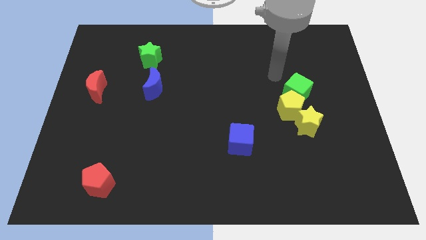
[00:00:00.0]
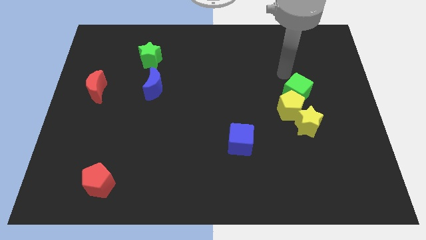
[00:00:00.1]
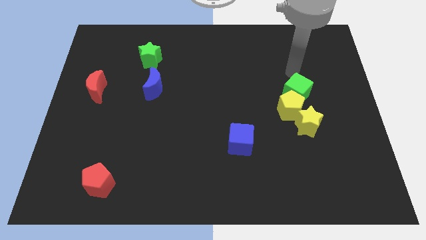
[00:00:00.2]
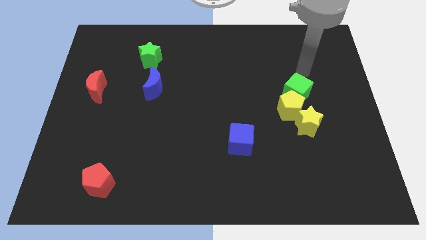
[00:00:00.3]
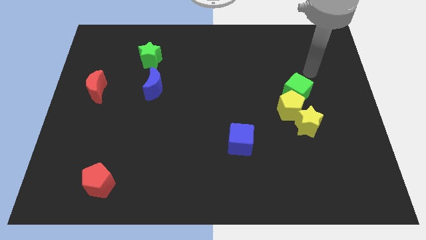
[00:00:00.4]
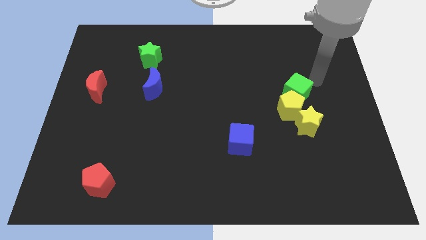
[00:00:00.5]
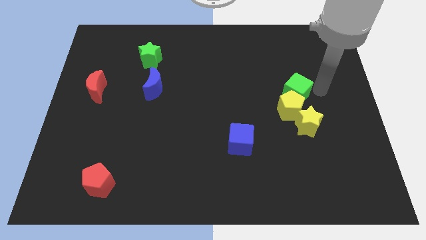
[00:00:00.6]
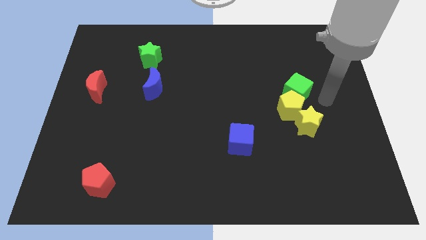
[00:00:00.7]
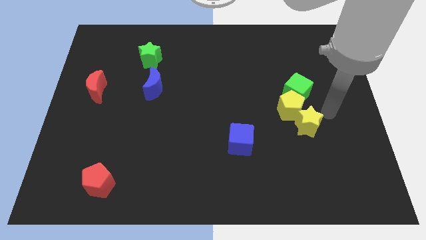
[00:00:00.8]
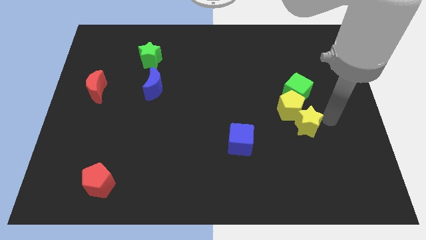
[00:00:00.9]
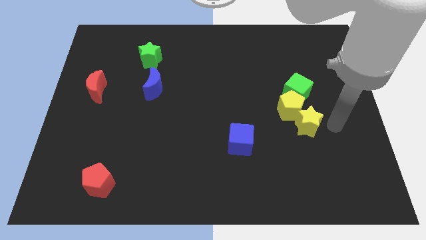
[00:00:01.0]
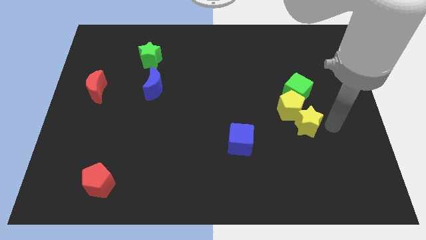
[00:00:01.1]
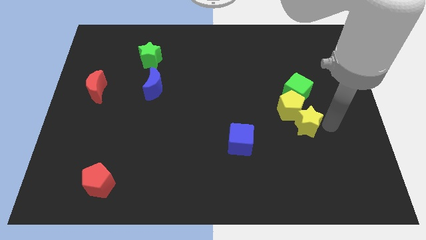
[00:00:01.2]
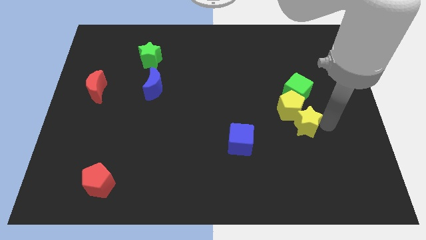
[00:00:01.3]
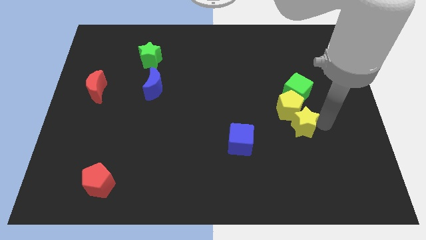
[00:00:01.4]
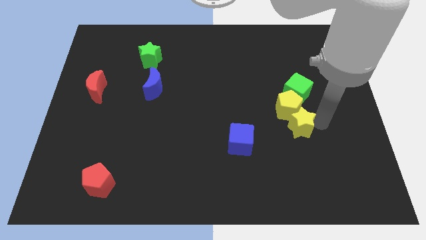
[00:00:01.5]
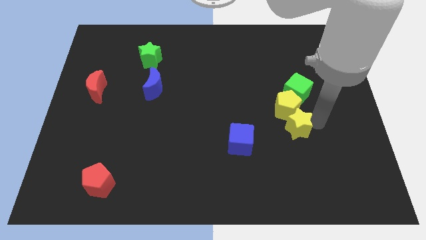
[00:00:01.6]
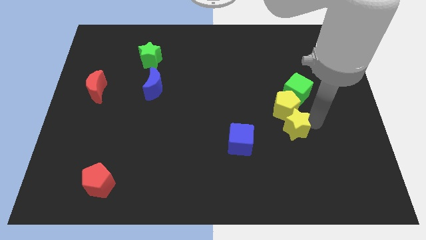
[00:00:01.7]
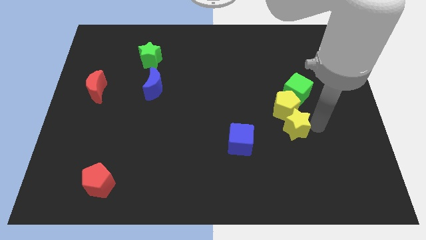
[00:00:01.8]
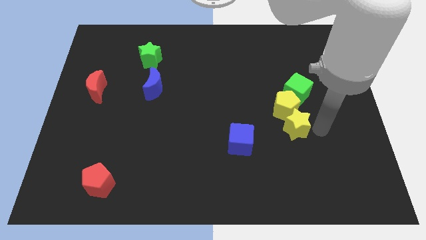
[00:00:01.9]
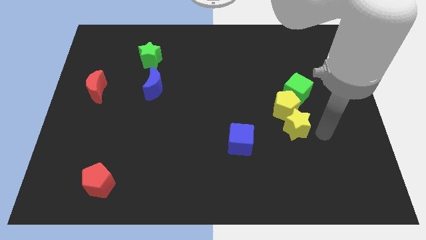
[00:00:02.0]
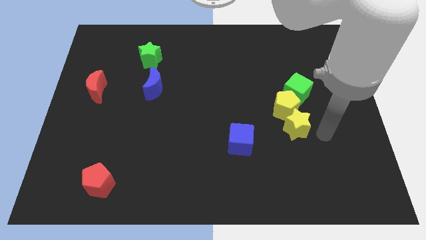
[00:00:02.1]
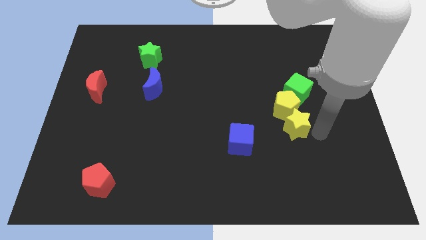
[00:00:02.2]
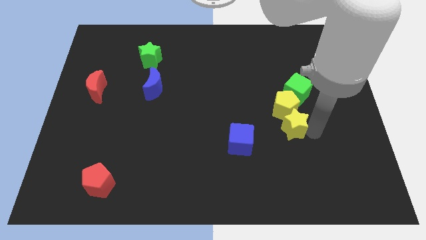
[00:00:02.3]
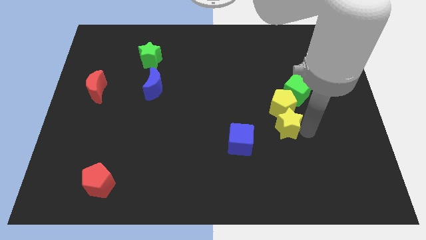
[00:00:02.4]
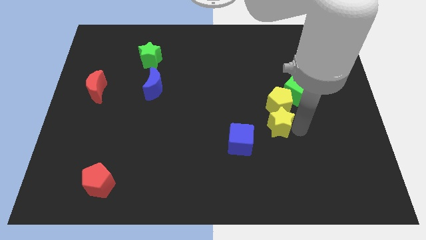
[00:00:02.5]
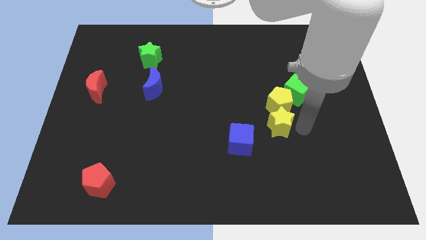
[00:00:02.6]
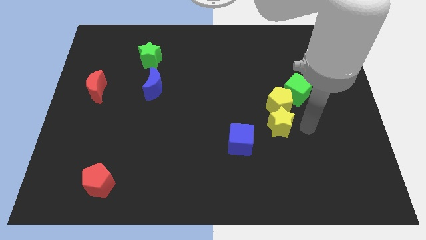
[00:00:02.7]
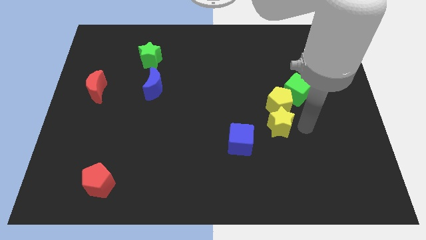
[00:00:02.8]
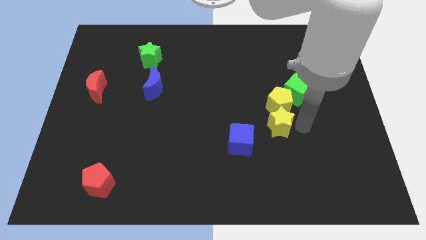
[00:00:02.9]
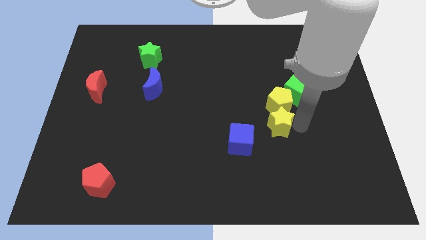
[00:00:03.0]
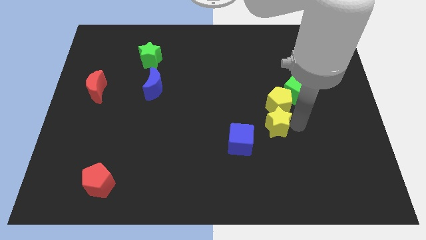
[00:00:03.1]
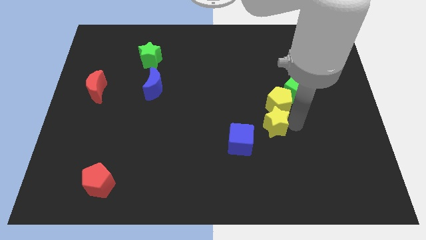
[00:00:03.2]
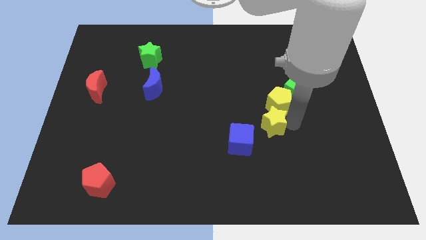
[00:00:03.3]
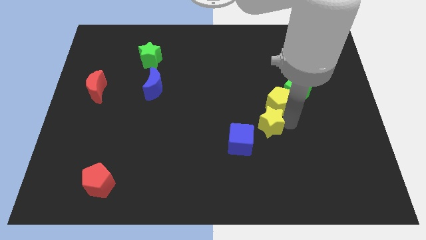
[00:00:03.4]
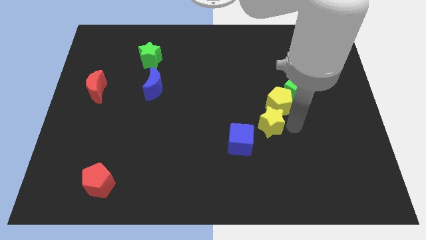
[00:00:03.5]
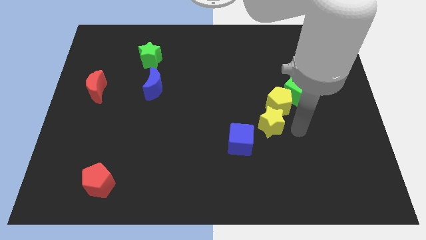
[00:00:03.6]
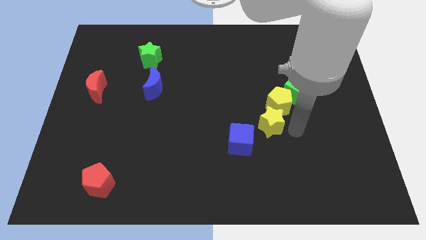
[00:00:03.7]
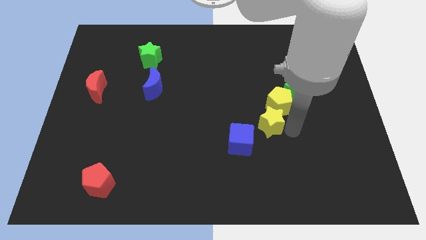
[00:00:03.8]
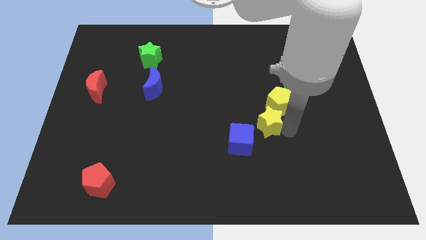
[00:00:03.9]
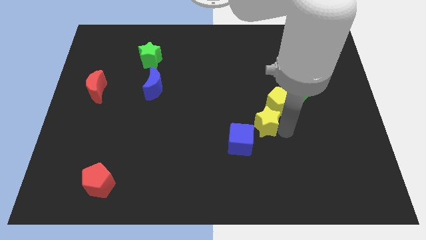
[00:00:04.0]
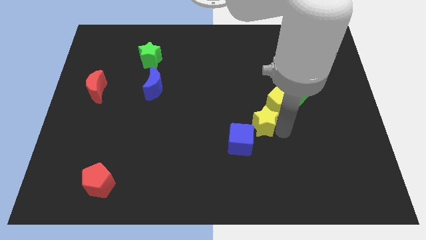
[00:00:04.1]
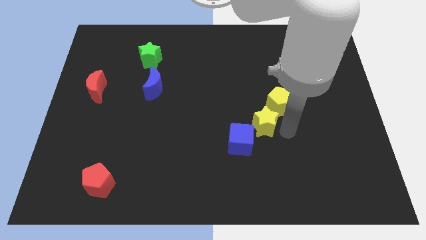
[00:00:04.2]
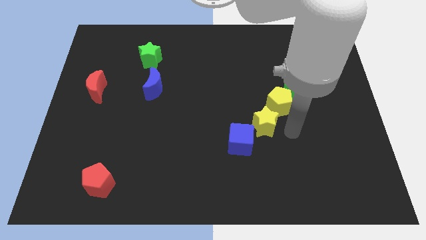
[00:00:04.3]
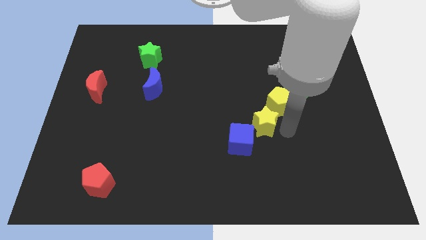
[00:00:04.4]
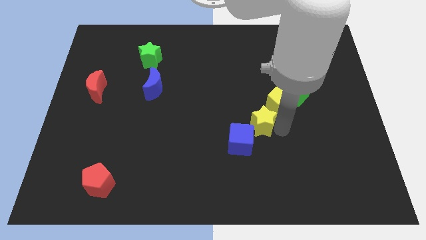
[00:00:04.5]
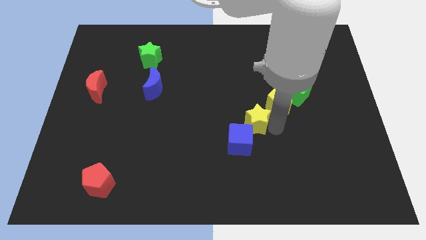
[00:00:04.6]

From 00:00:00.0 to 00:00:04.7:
slide the yellow star to the center of the board

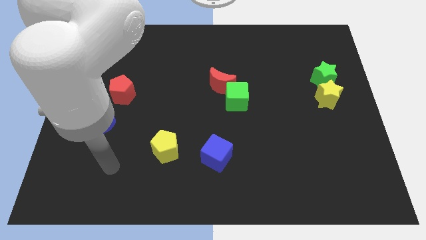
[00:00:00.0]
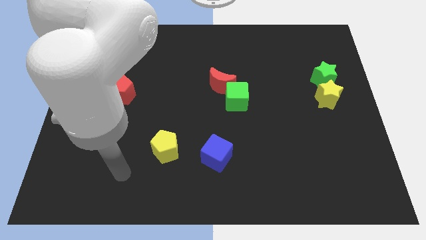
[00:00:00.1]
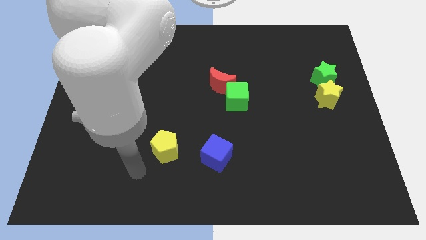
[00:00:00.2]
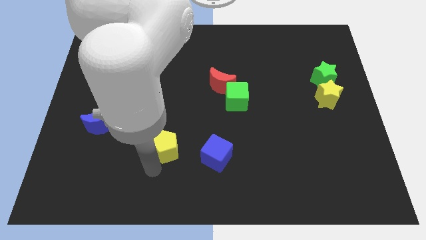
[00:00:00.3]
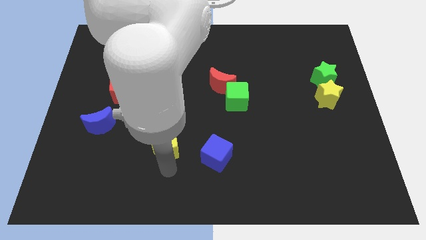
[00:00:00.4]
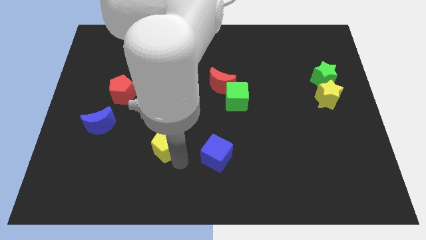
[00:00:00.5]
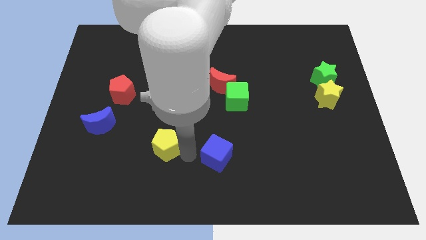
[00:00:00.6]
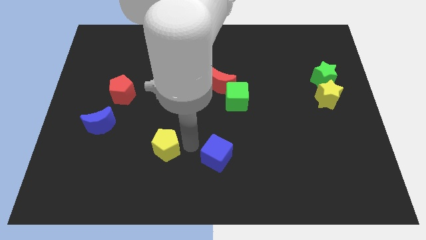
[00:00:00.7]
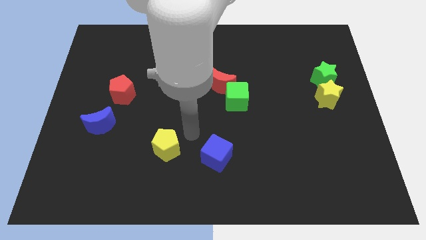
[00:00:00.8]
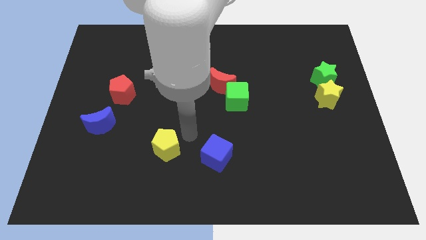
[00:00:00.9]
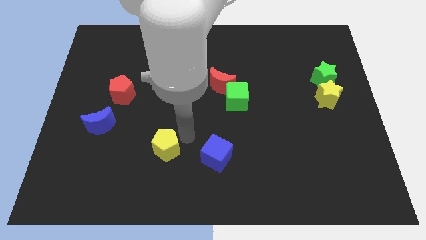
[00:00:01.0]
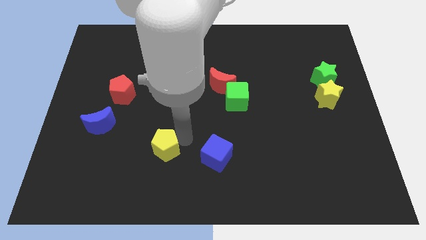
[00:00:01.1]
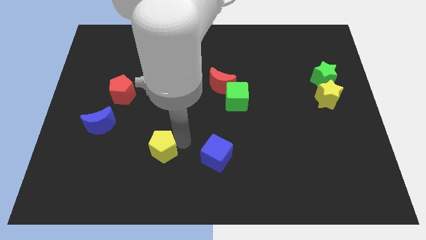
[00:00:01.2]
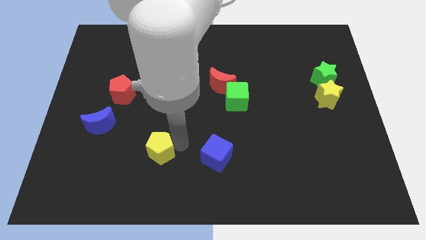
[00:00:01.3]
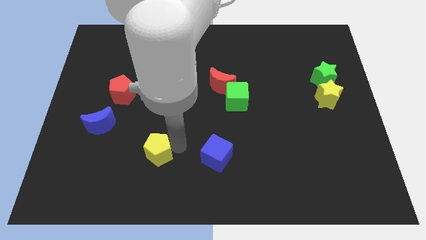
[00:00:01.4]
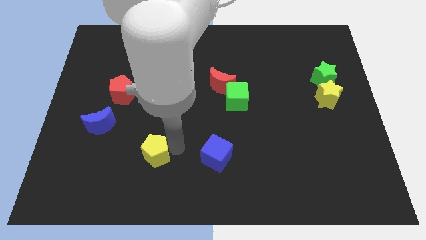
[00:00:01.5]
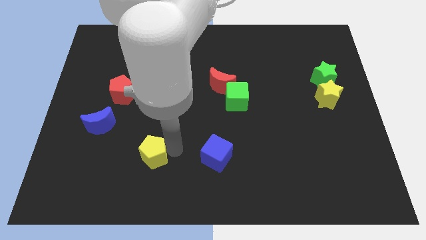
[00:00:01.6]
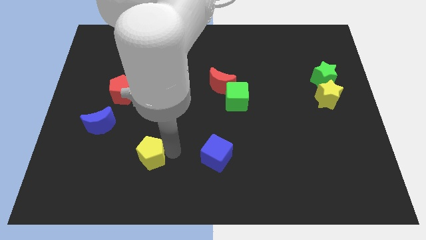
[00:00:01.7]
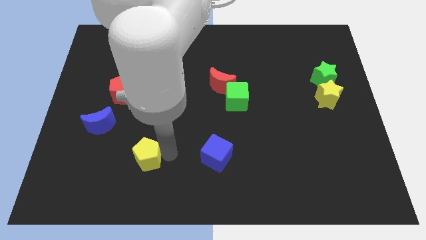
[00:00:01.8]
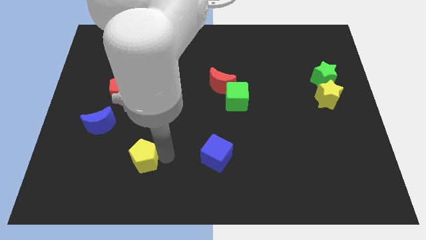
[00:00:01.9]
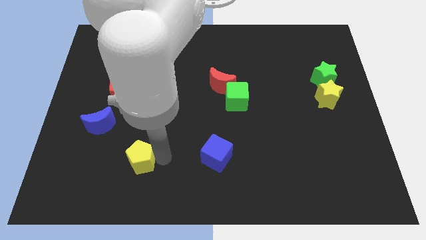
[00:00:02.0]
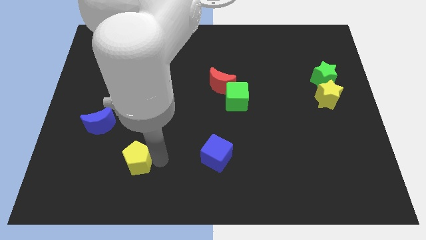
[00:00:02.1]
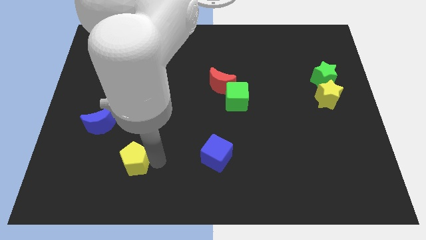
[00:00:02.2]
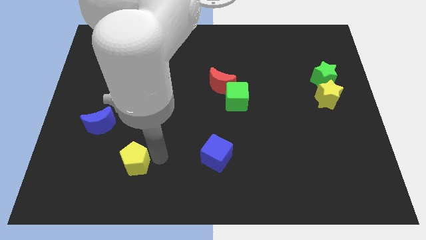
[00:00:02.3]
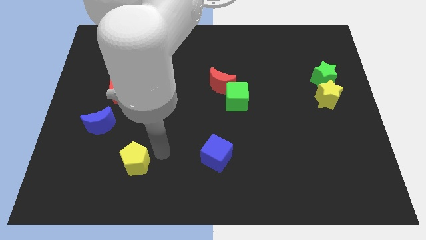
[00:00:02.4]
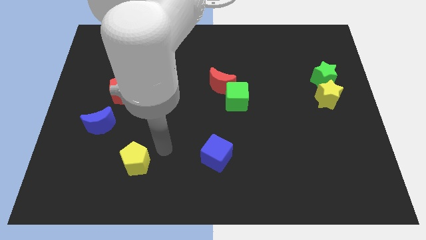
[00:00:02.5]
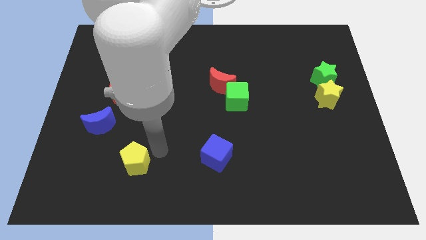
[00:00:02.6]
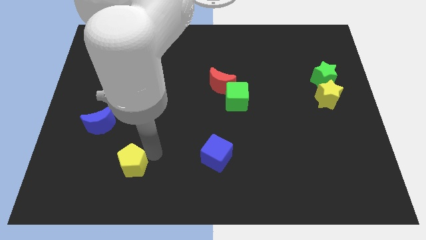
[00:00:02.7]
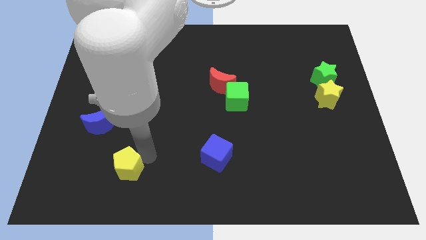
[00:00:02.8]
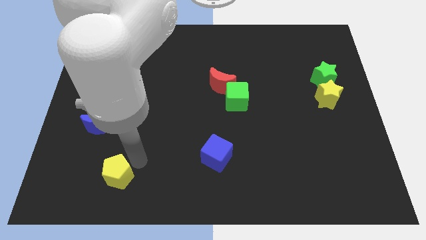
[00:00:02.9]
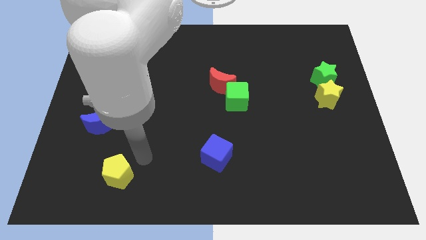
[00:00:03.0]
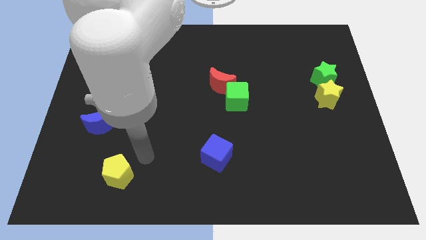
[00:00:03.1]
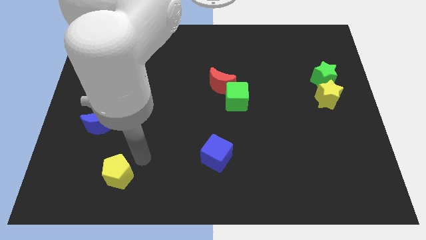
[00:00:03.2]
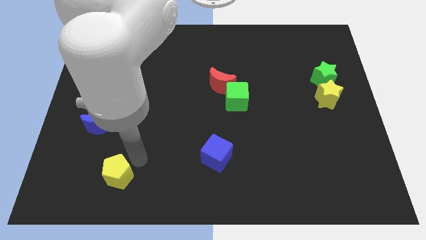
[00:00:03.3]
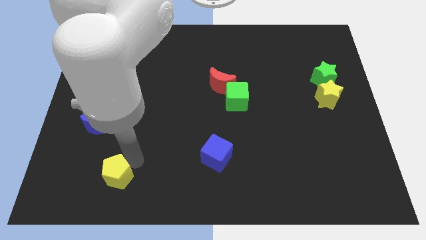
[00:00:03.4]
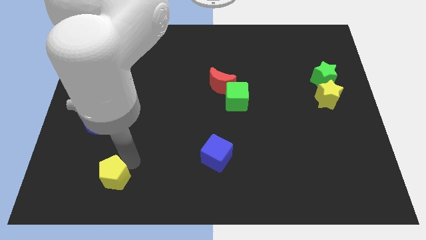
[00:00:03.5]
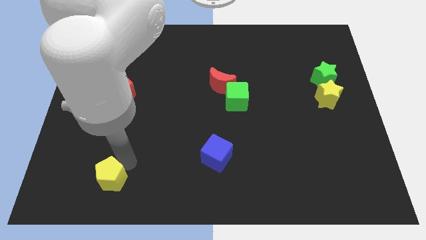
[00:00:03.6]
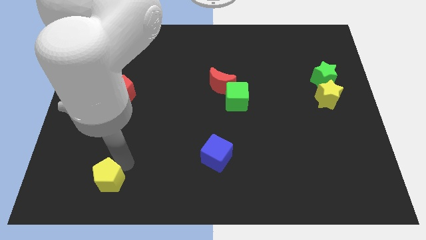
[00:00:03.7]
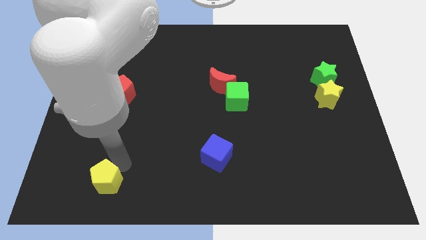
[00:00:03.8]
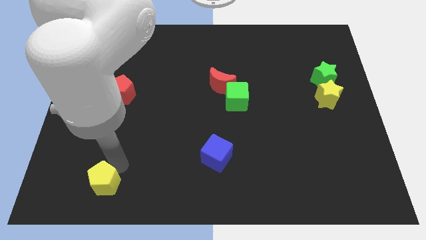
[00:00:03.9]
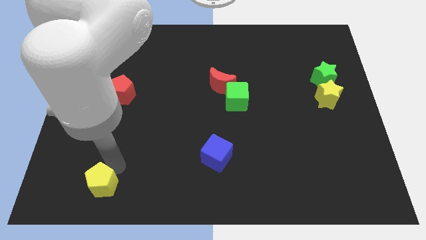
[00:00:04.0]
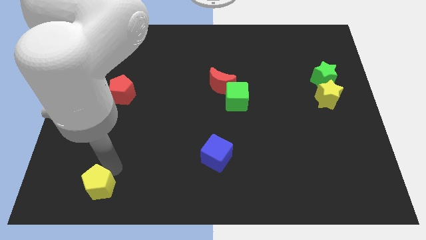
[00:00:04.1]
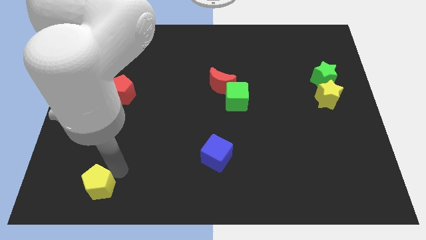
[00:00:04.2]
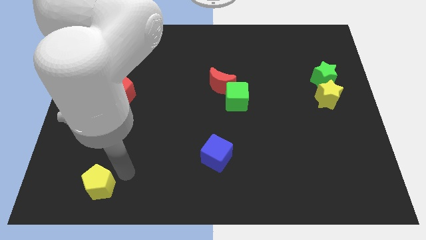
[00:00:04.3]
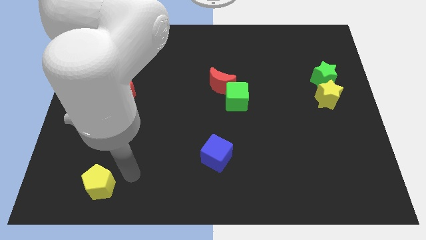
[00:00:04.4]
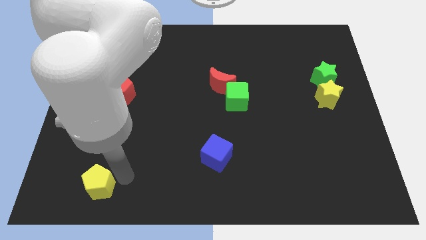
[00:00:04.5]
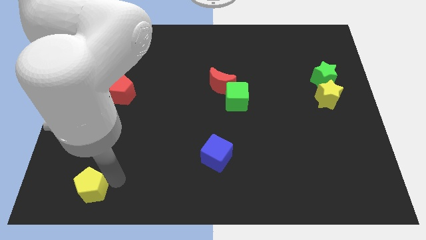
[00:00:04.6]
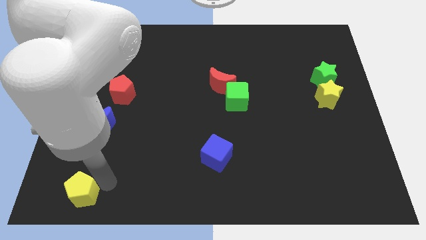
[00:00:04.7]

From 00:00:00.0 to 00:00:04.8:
slide the yellow pentagon to the lower left corner
